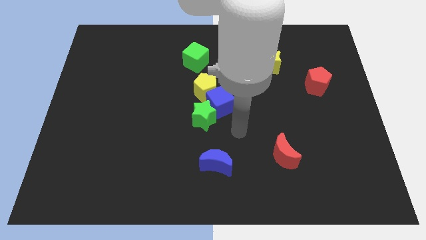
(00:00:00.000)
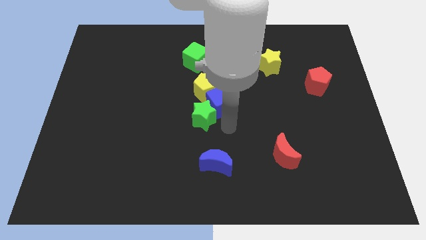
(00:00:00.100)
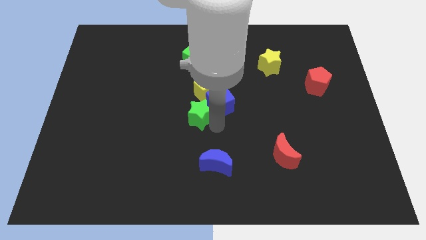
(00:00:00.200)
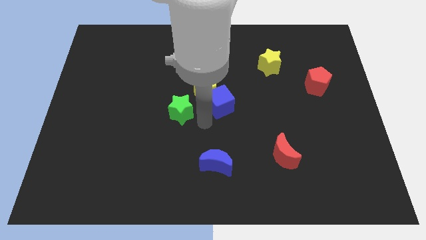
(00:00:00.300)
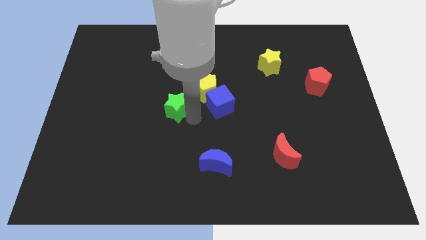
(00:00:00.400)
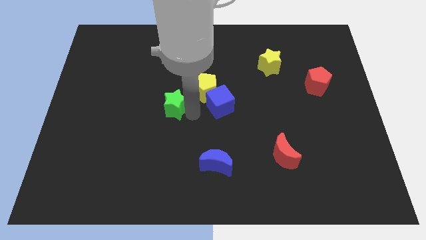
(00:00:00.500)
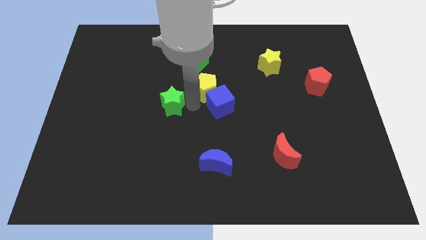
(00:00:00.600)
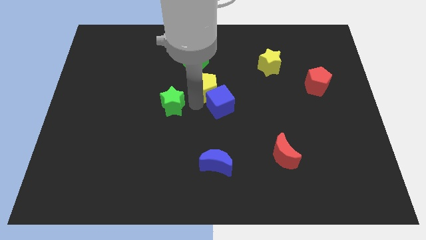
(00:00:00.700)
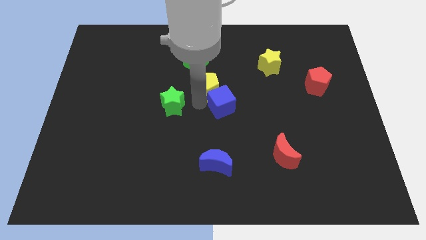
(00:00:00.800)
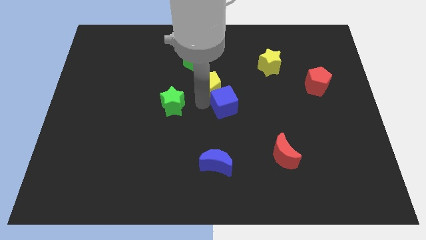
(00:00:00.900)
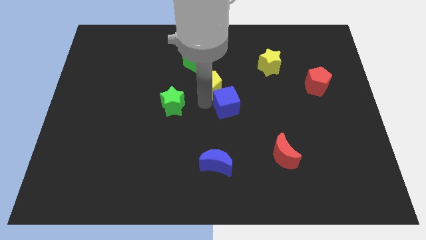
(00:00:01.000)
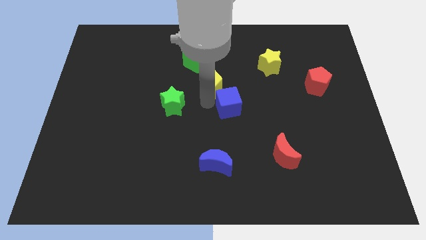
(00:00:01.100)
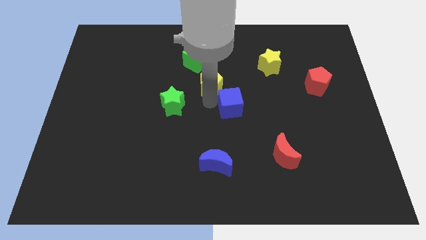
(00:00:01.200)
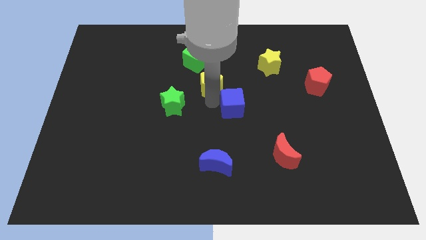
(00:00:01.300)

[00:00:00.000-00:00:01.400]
separate the blue cube from the green star and yellow pentagon

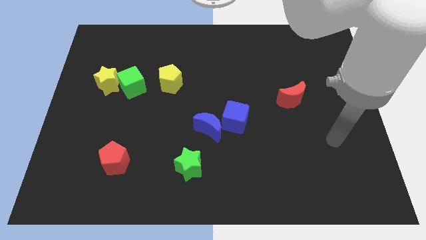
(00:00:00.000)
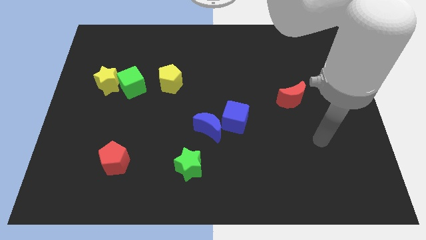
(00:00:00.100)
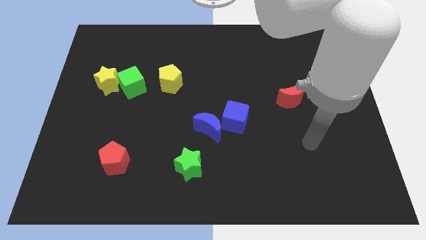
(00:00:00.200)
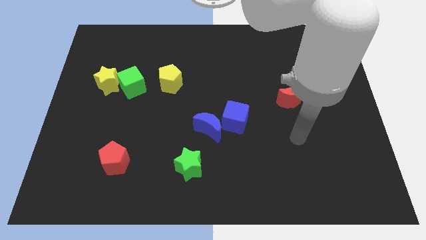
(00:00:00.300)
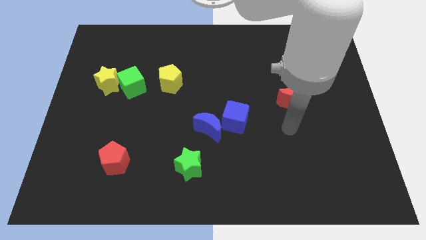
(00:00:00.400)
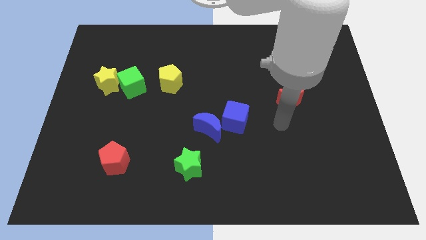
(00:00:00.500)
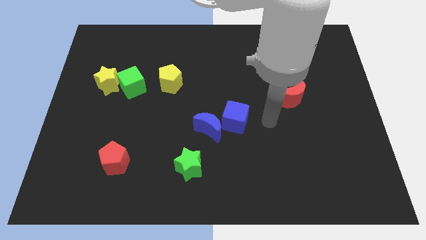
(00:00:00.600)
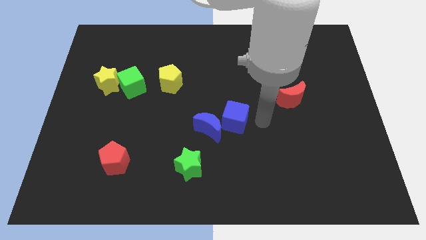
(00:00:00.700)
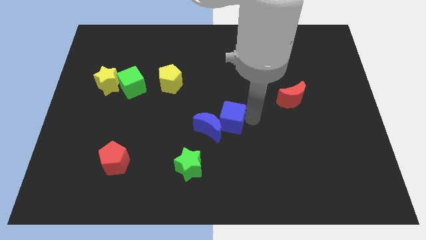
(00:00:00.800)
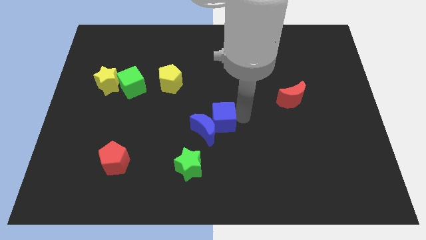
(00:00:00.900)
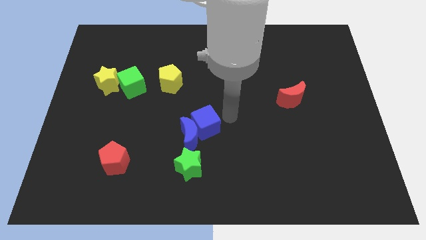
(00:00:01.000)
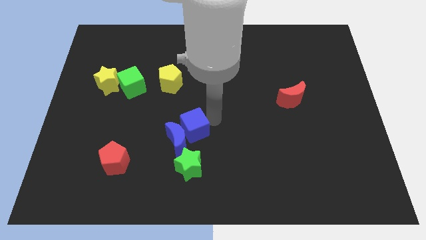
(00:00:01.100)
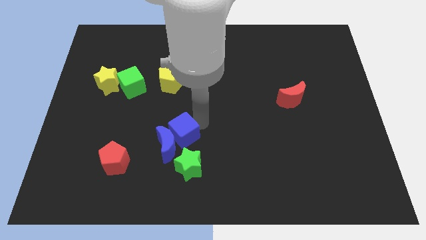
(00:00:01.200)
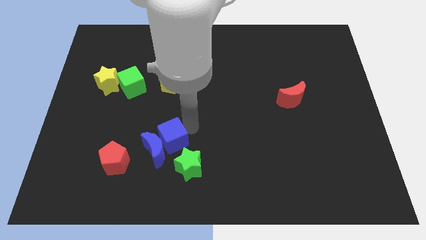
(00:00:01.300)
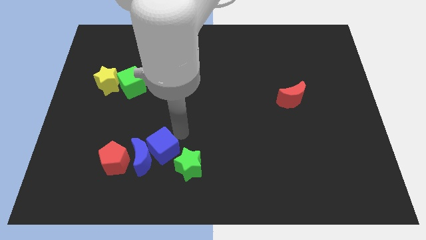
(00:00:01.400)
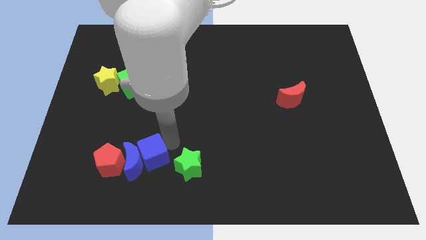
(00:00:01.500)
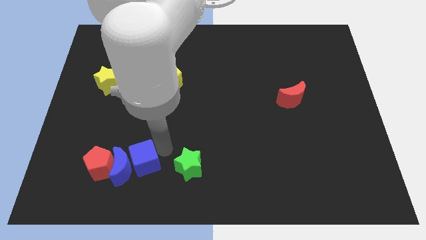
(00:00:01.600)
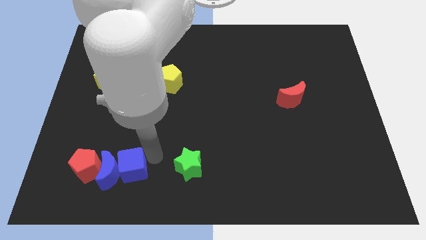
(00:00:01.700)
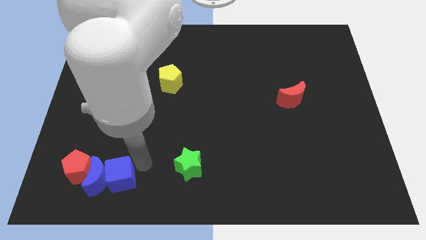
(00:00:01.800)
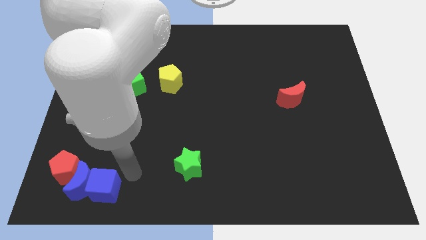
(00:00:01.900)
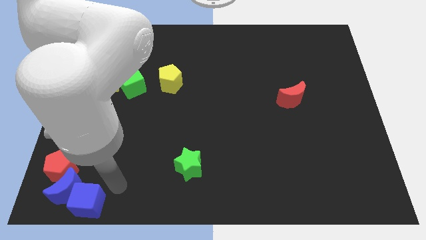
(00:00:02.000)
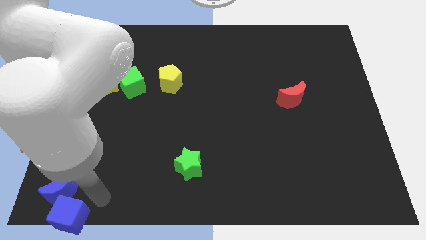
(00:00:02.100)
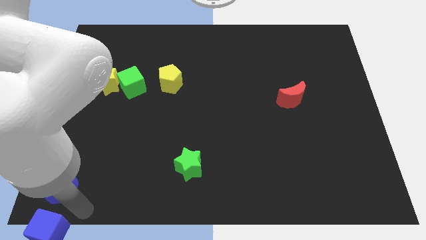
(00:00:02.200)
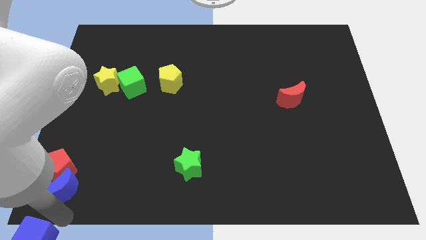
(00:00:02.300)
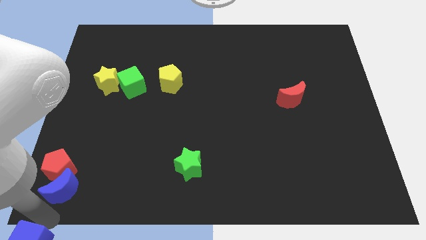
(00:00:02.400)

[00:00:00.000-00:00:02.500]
pull the blue moon apart from the blue cube

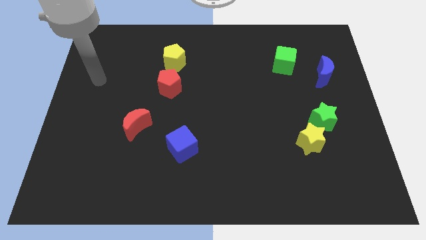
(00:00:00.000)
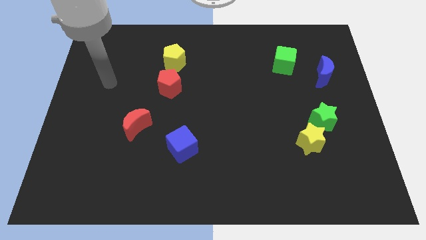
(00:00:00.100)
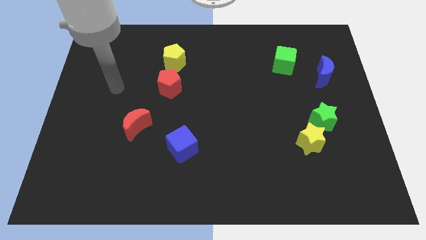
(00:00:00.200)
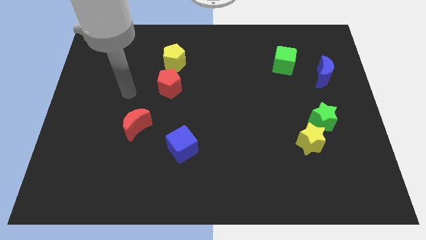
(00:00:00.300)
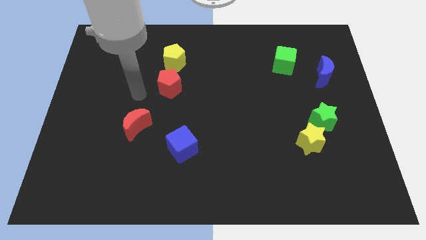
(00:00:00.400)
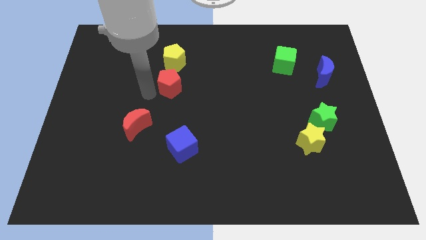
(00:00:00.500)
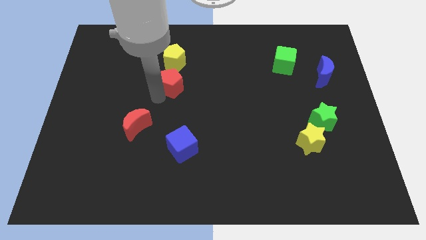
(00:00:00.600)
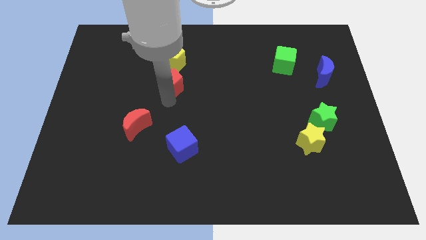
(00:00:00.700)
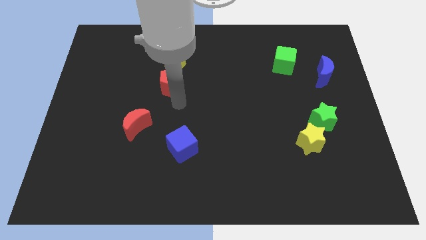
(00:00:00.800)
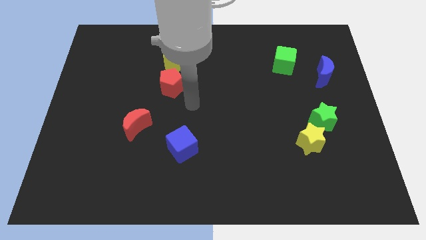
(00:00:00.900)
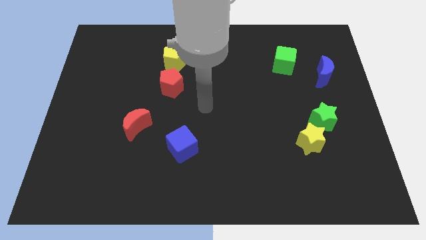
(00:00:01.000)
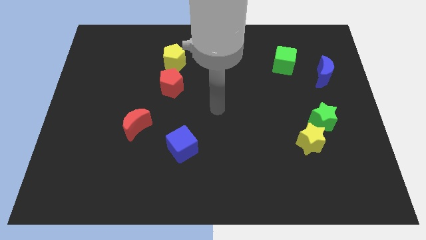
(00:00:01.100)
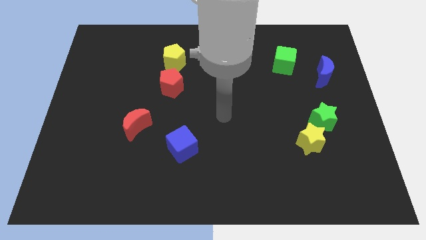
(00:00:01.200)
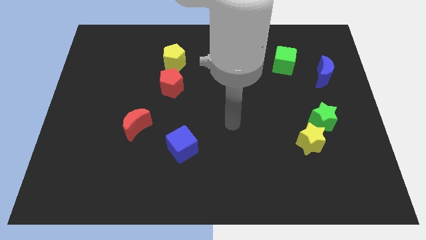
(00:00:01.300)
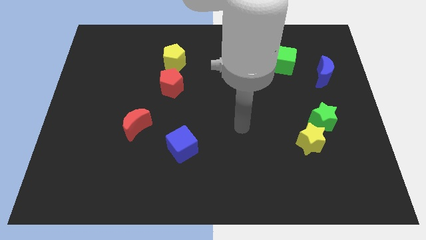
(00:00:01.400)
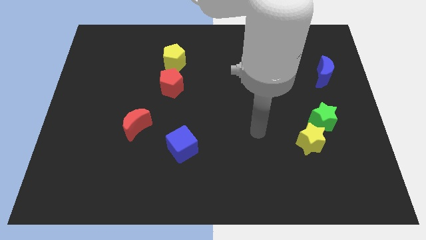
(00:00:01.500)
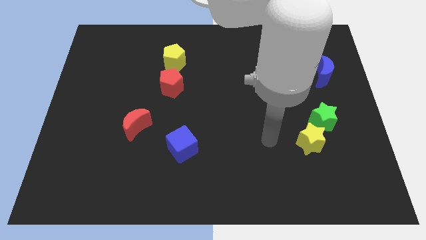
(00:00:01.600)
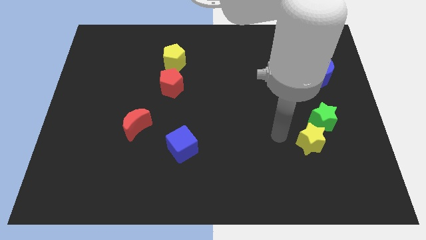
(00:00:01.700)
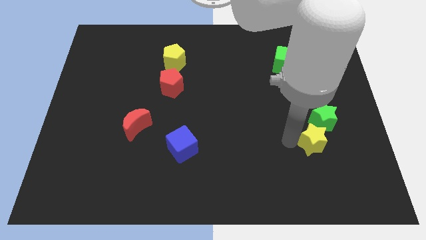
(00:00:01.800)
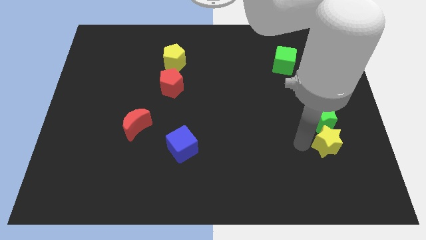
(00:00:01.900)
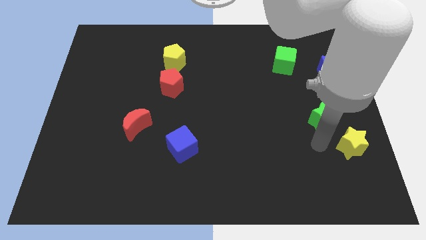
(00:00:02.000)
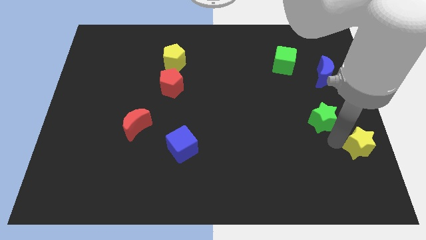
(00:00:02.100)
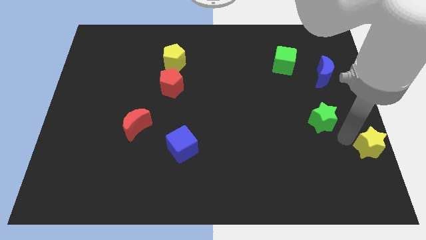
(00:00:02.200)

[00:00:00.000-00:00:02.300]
separate the green star from the yellow star

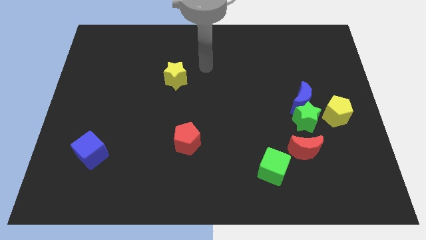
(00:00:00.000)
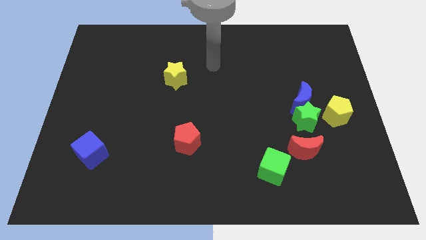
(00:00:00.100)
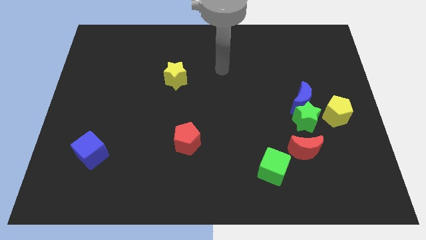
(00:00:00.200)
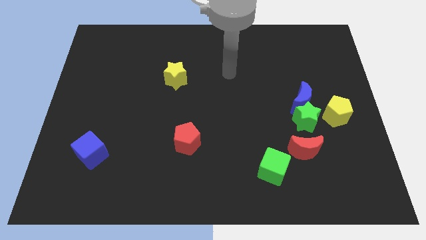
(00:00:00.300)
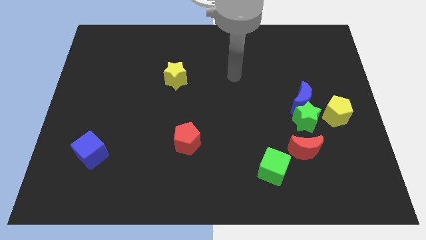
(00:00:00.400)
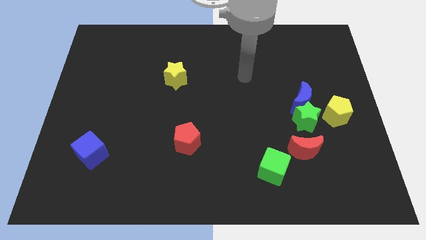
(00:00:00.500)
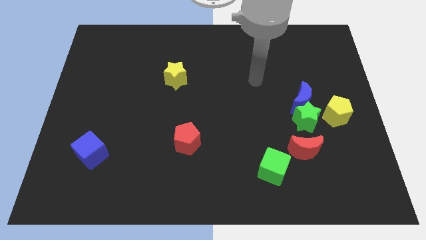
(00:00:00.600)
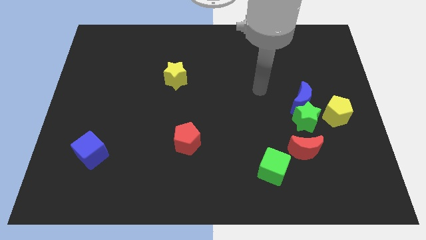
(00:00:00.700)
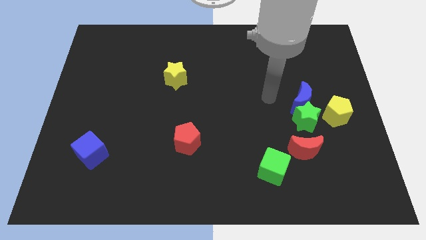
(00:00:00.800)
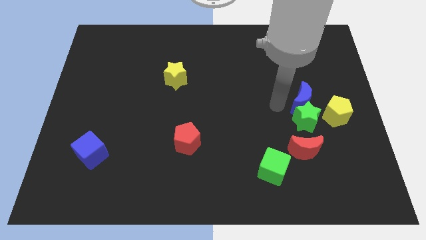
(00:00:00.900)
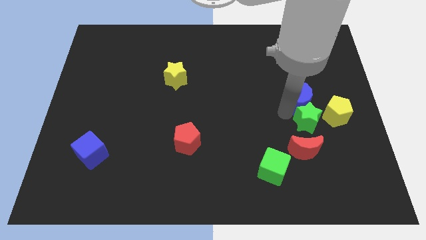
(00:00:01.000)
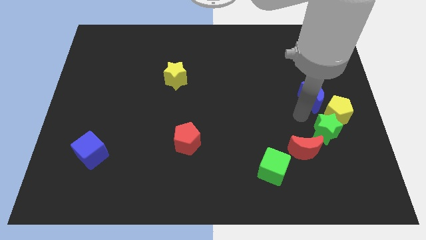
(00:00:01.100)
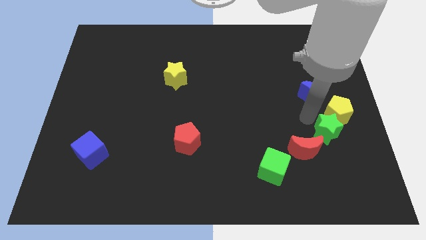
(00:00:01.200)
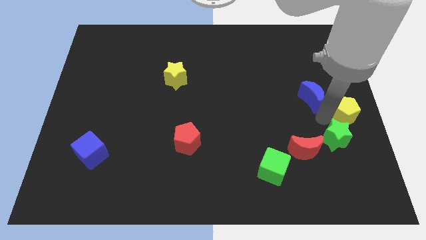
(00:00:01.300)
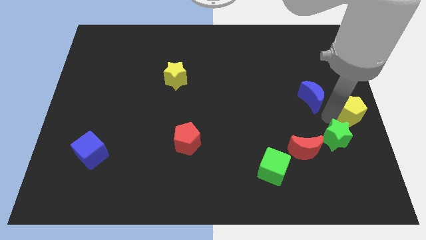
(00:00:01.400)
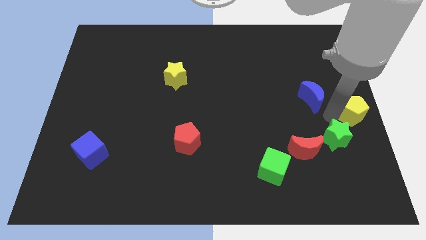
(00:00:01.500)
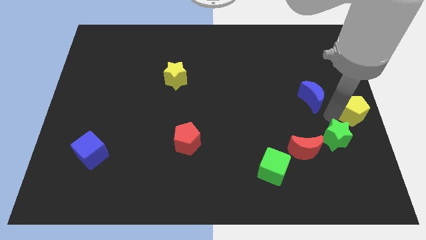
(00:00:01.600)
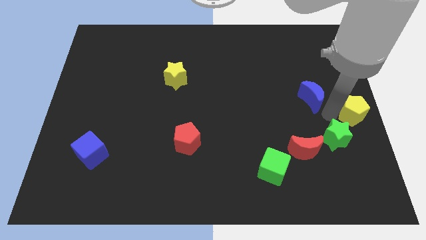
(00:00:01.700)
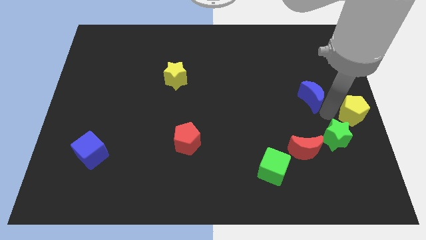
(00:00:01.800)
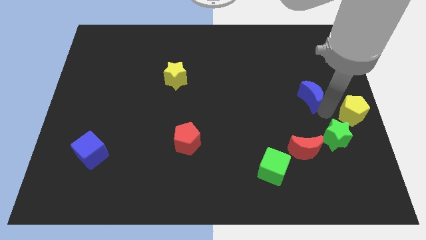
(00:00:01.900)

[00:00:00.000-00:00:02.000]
separate the blue moon from the green star and yellow pentagon

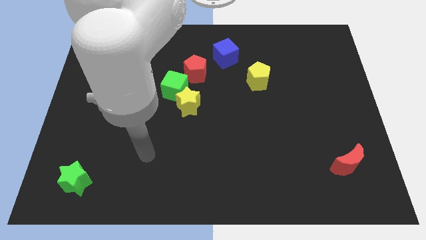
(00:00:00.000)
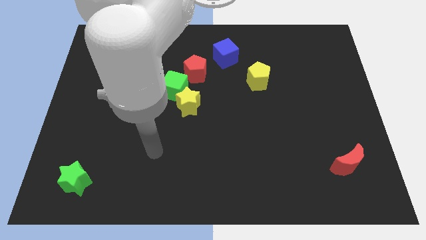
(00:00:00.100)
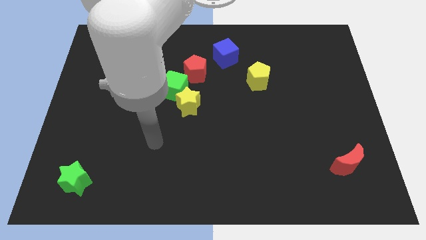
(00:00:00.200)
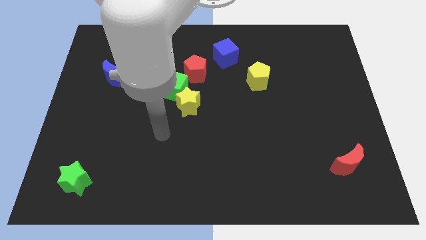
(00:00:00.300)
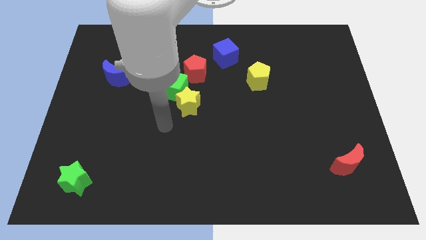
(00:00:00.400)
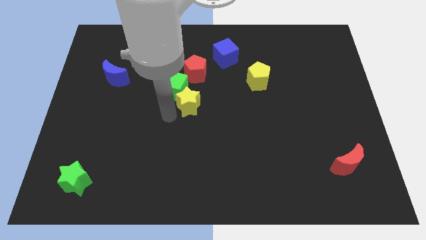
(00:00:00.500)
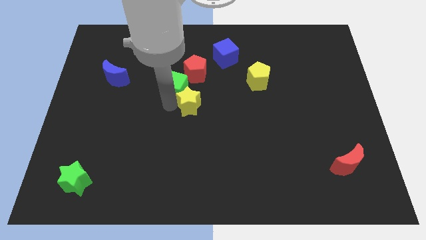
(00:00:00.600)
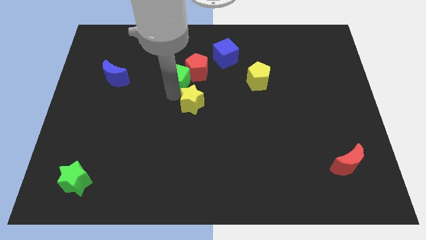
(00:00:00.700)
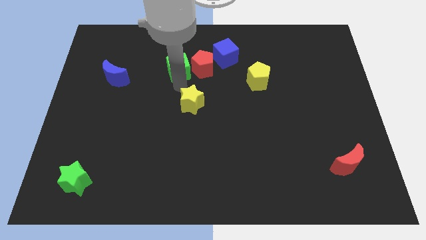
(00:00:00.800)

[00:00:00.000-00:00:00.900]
separate the yellow star from the green cube

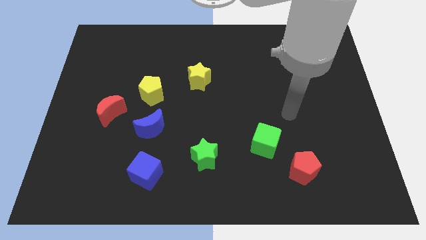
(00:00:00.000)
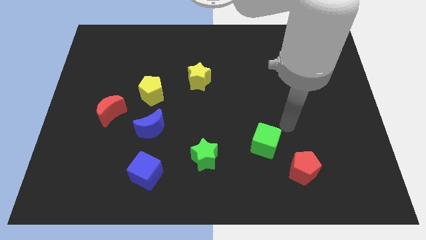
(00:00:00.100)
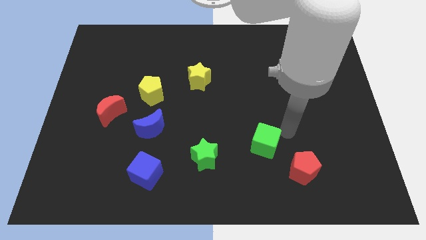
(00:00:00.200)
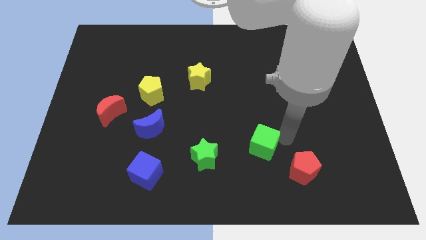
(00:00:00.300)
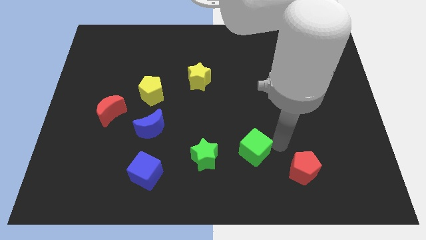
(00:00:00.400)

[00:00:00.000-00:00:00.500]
pull the red pentagon apart from the green cube
